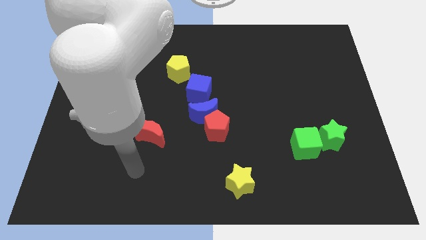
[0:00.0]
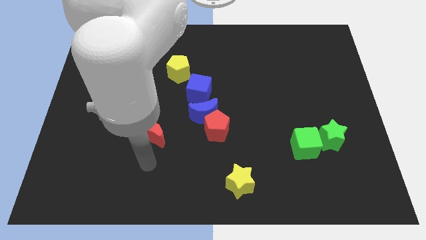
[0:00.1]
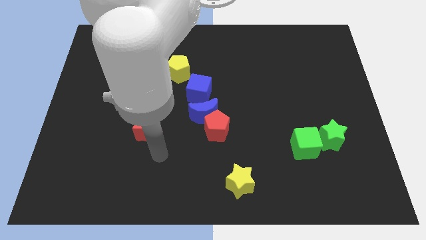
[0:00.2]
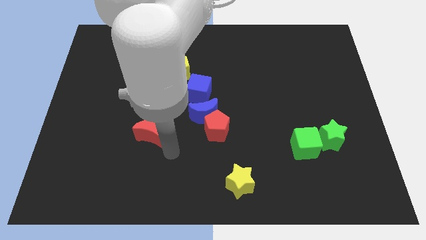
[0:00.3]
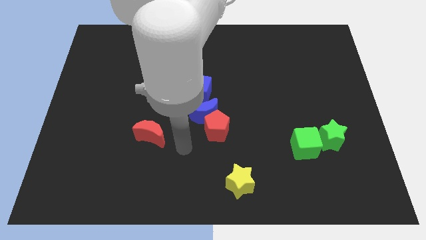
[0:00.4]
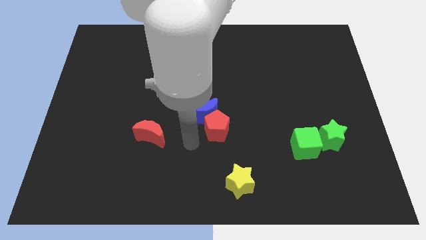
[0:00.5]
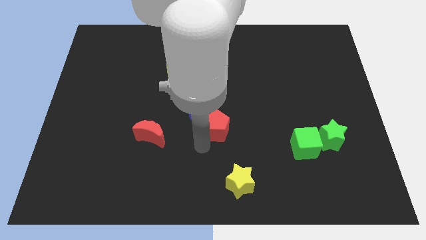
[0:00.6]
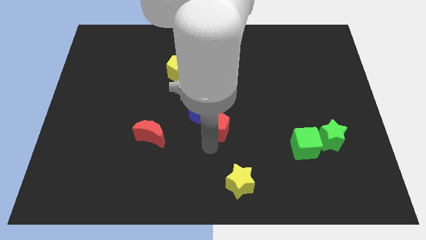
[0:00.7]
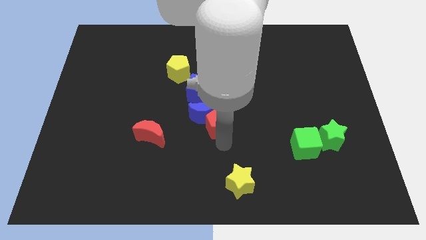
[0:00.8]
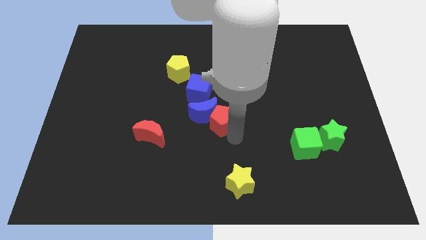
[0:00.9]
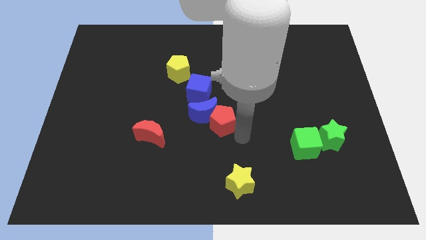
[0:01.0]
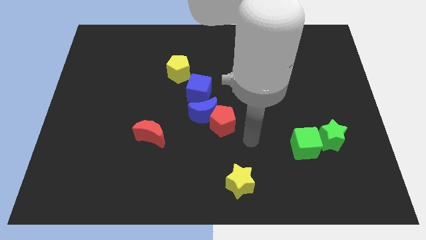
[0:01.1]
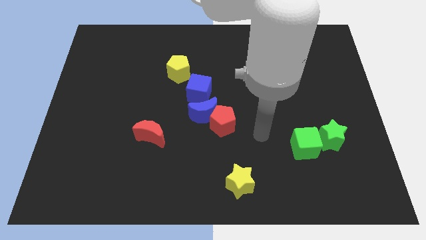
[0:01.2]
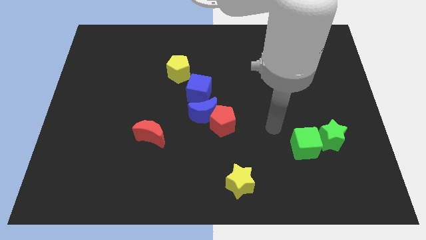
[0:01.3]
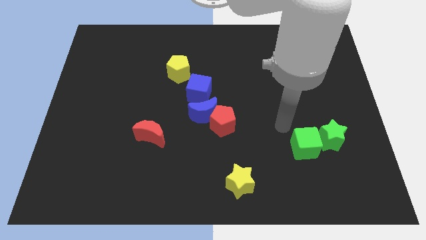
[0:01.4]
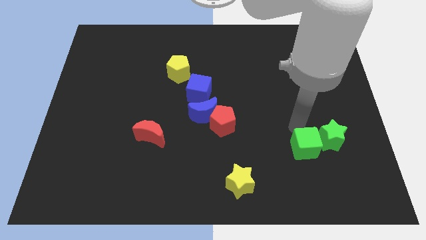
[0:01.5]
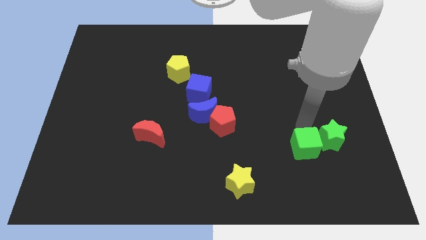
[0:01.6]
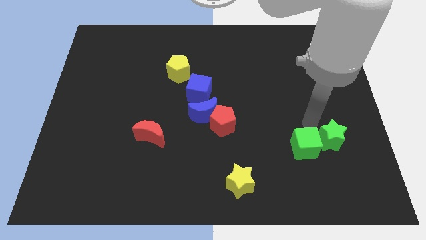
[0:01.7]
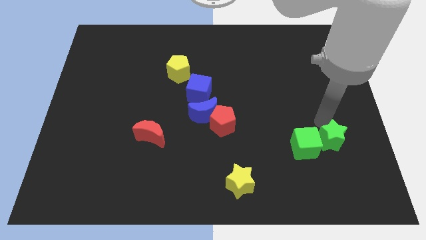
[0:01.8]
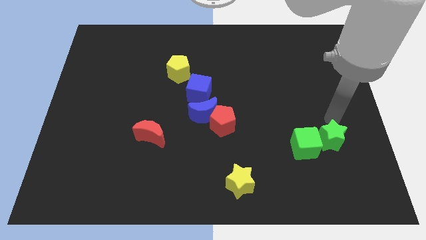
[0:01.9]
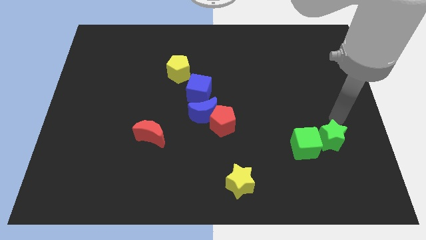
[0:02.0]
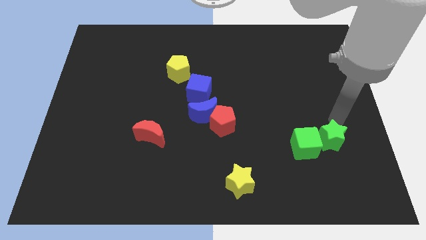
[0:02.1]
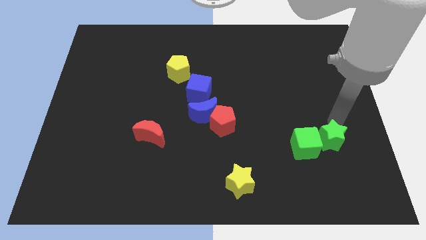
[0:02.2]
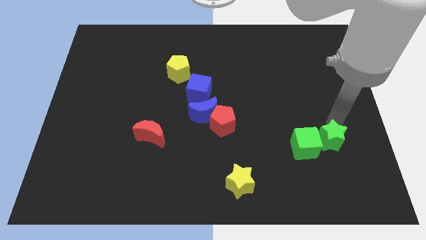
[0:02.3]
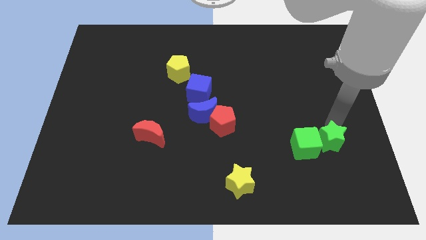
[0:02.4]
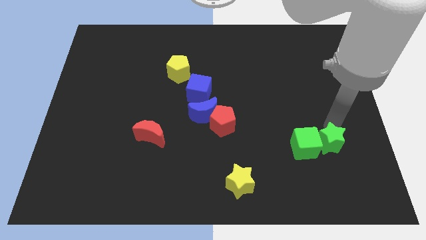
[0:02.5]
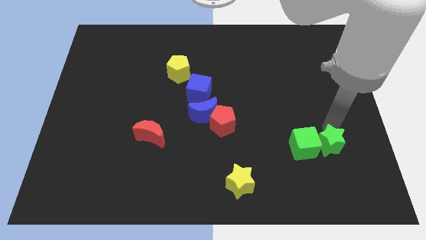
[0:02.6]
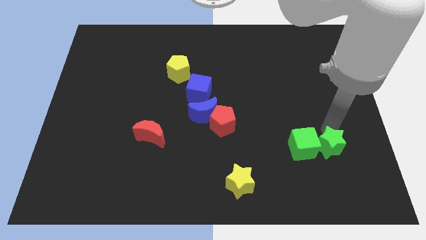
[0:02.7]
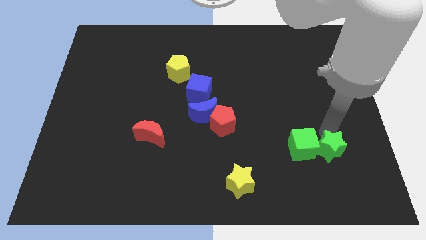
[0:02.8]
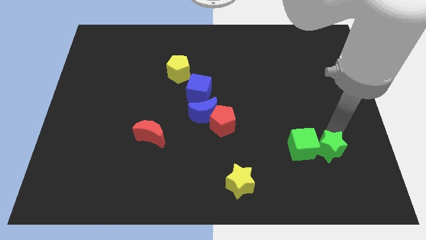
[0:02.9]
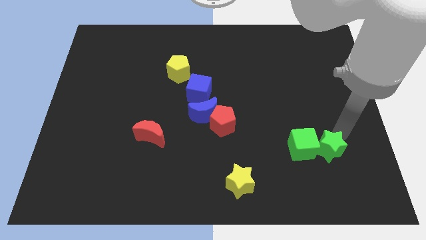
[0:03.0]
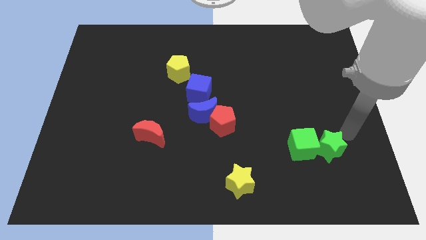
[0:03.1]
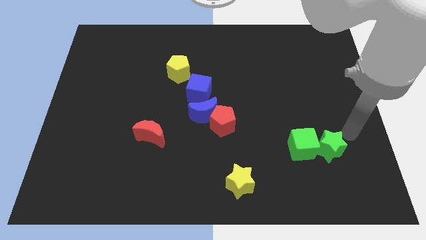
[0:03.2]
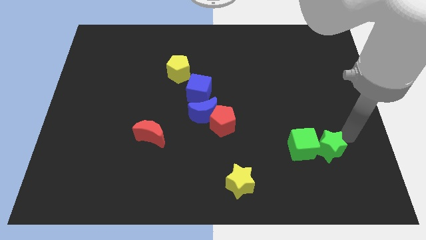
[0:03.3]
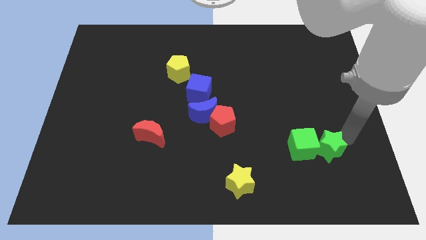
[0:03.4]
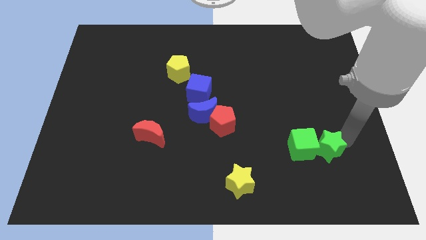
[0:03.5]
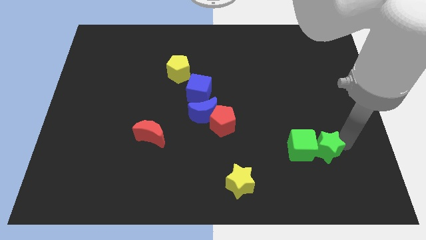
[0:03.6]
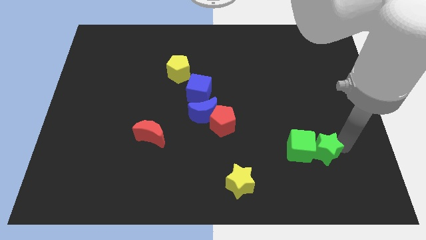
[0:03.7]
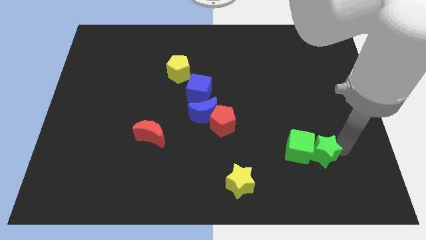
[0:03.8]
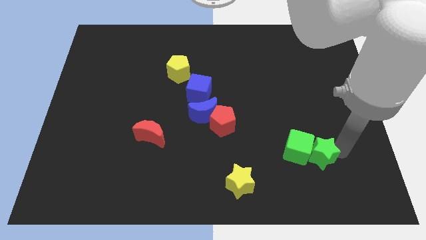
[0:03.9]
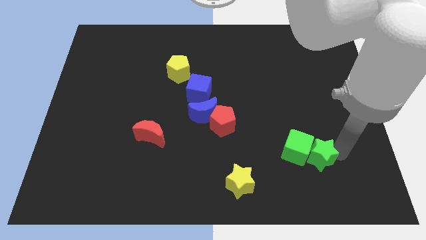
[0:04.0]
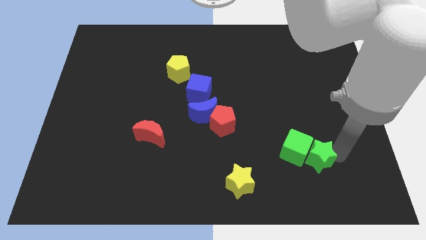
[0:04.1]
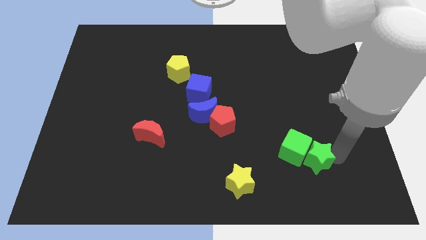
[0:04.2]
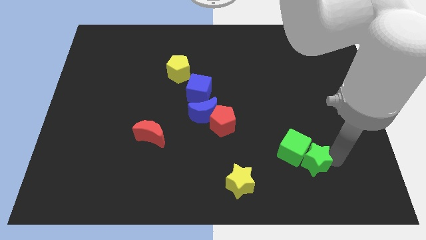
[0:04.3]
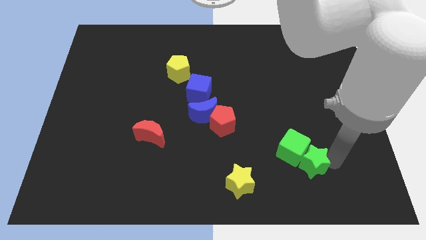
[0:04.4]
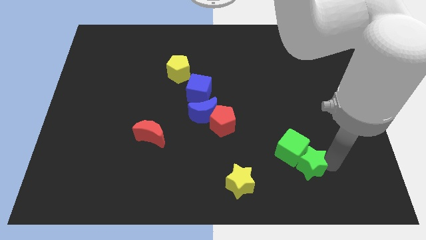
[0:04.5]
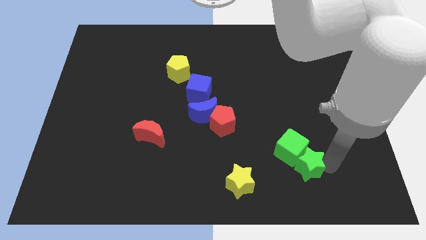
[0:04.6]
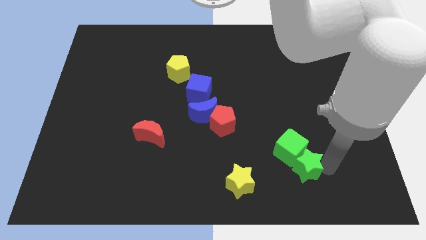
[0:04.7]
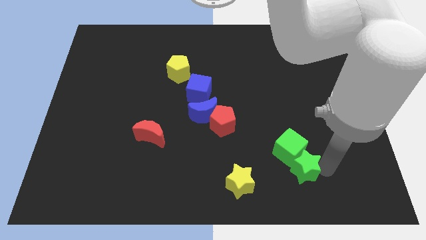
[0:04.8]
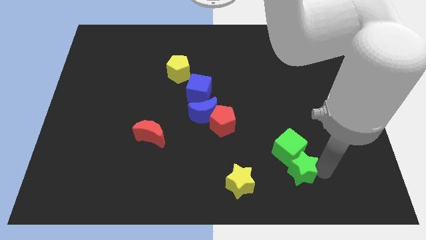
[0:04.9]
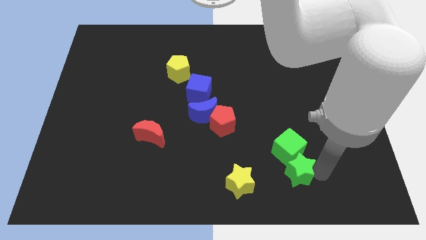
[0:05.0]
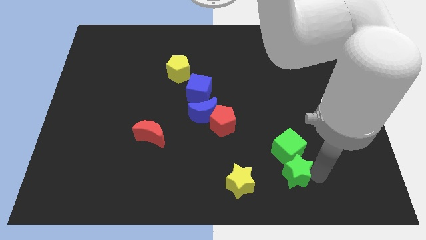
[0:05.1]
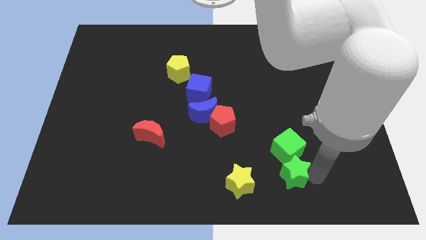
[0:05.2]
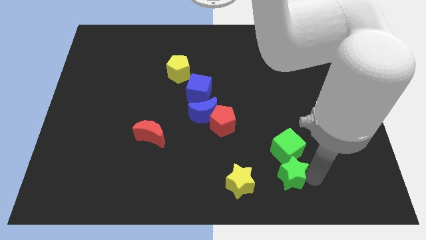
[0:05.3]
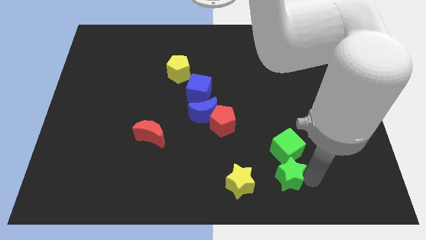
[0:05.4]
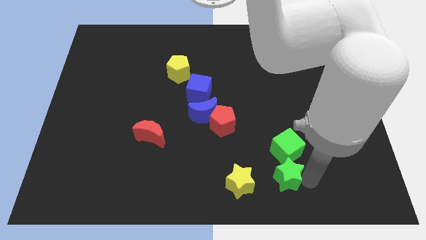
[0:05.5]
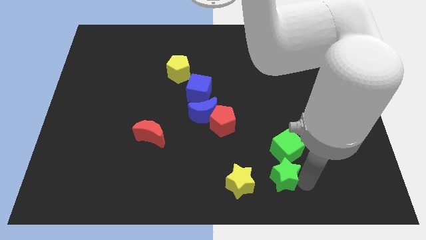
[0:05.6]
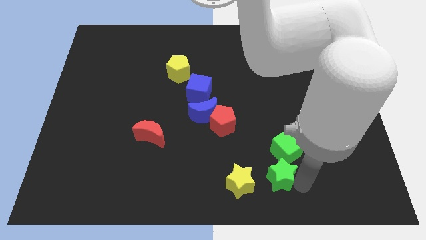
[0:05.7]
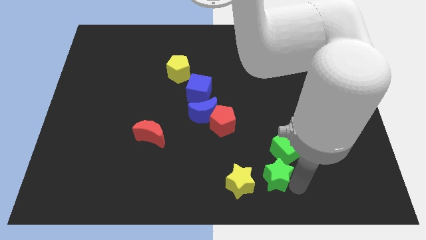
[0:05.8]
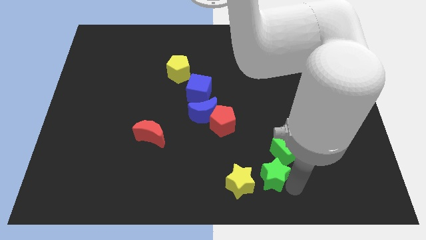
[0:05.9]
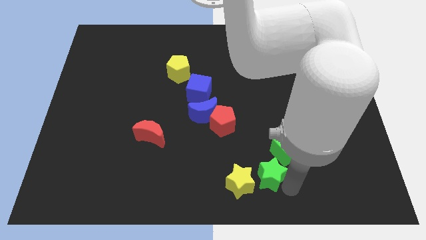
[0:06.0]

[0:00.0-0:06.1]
slide the green star close to the yellow star

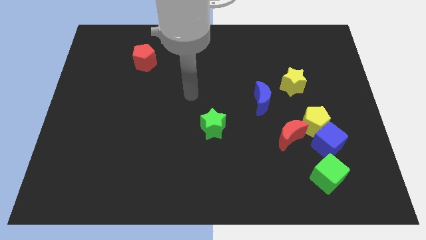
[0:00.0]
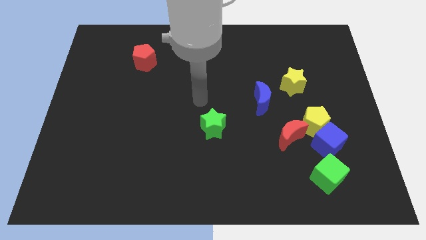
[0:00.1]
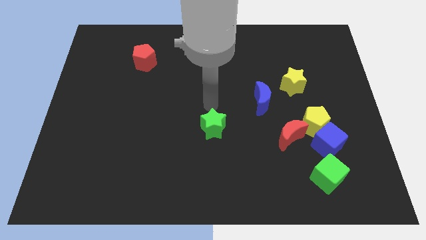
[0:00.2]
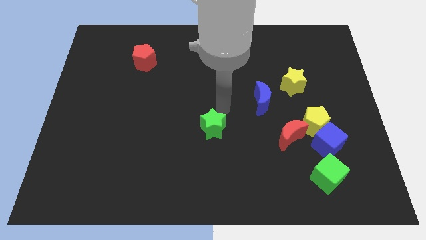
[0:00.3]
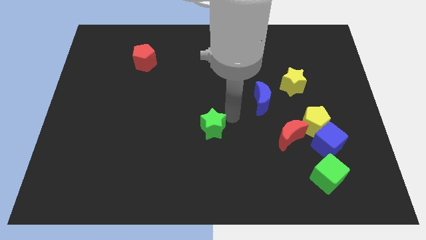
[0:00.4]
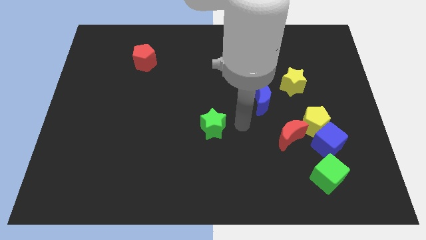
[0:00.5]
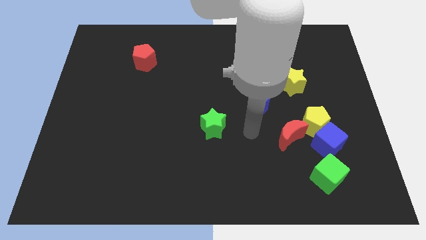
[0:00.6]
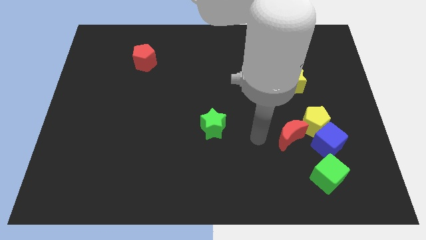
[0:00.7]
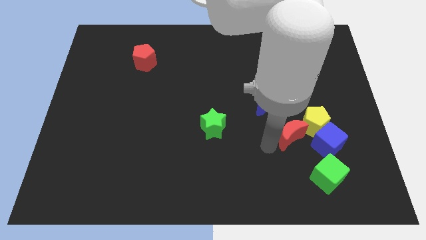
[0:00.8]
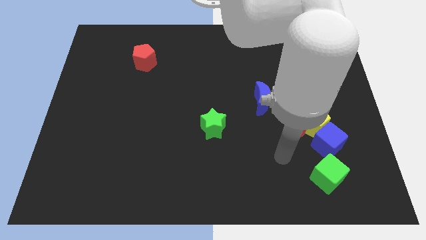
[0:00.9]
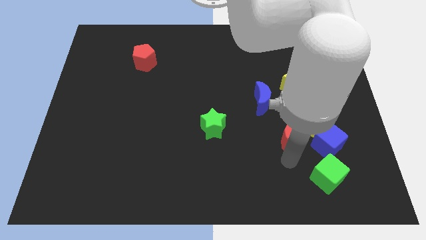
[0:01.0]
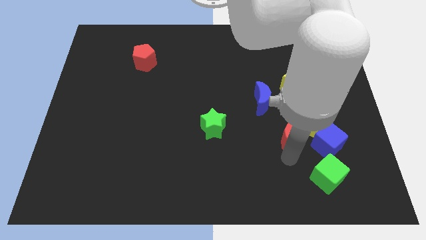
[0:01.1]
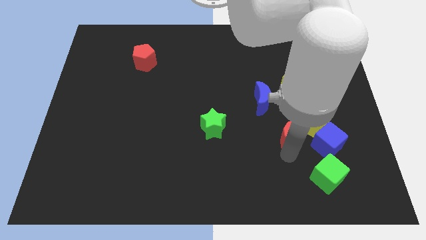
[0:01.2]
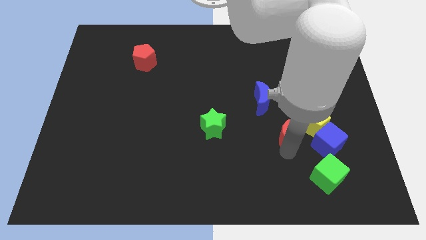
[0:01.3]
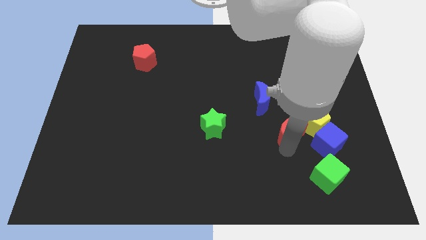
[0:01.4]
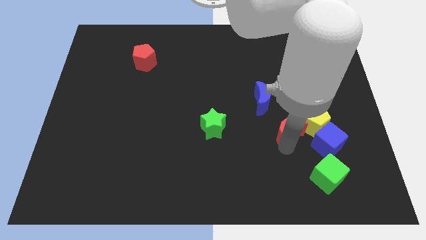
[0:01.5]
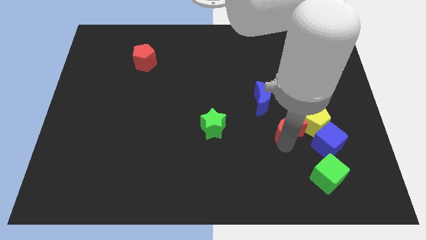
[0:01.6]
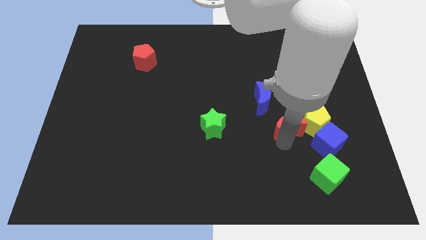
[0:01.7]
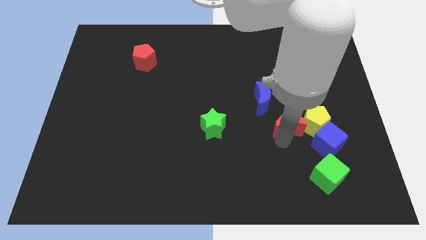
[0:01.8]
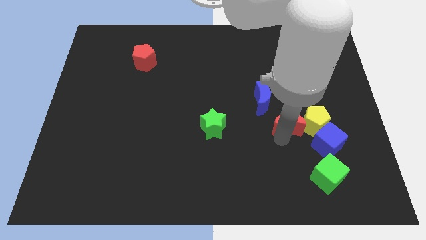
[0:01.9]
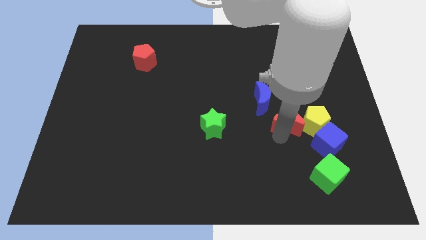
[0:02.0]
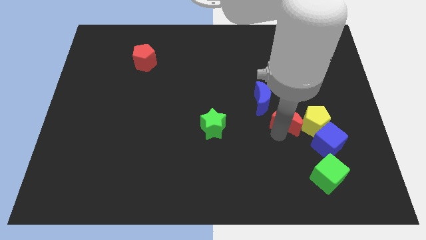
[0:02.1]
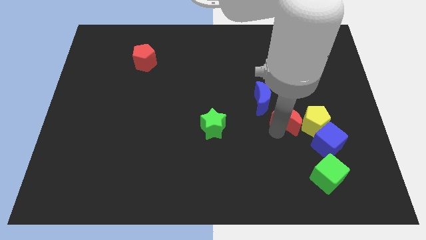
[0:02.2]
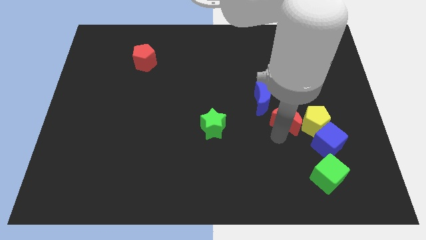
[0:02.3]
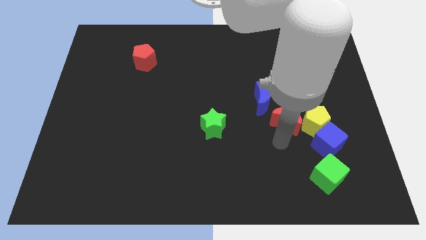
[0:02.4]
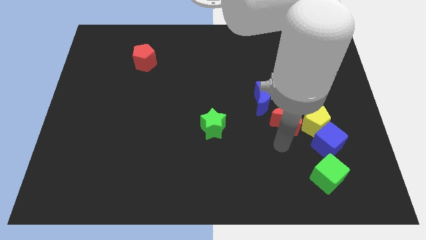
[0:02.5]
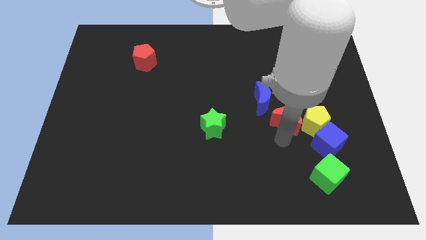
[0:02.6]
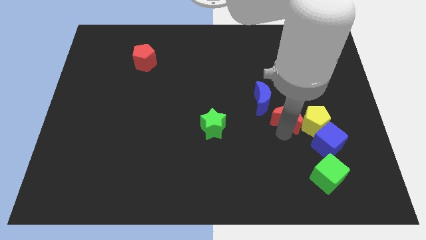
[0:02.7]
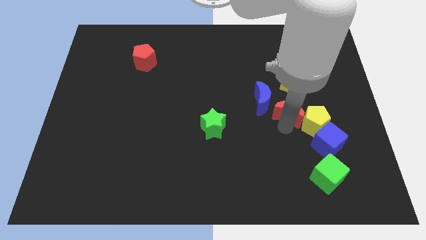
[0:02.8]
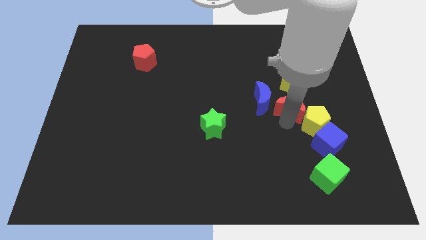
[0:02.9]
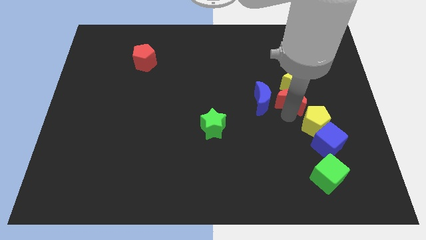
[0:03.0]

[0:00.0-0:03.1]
slide the red moon next to the yellow star
